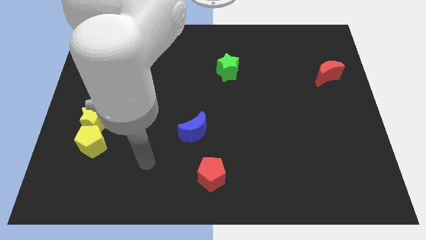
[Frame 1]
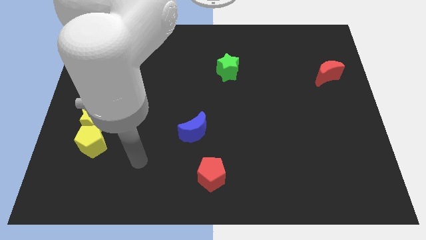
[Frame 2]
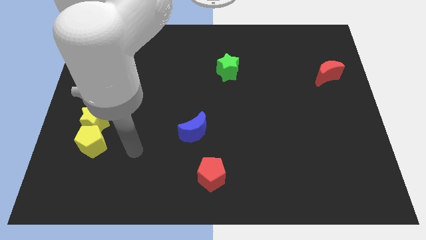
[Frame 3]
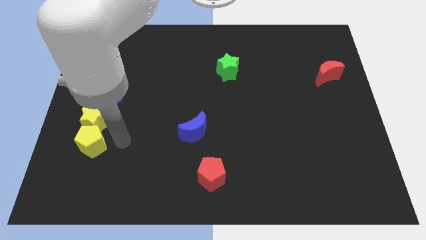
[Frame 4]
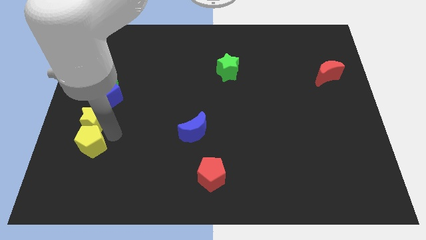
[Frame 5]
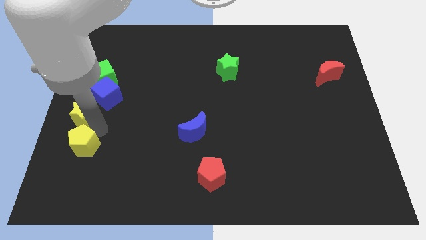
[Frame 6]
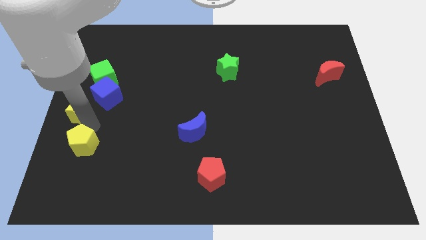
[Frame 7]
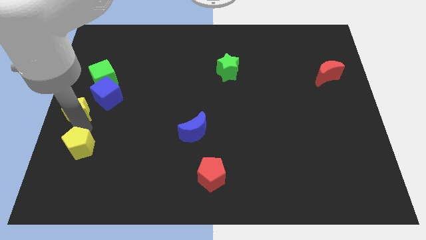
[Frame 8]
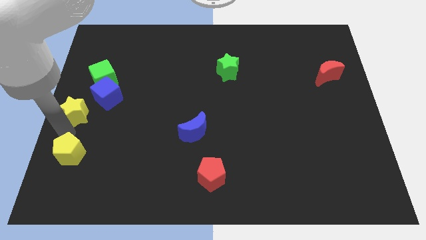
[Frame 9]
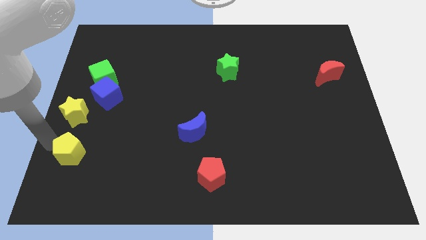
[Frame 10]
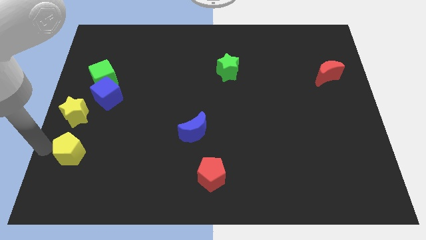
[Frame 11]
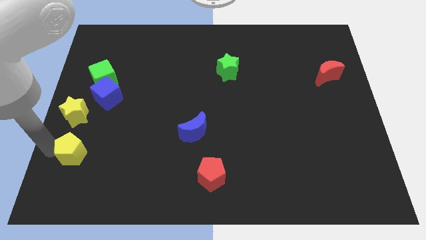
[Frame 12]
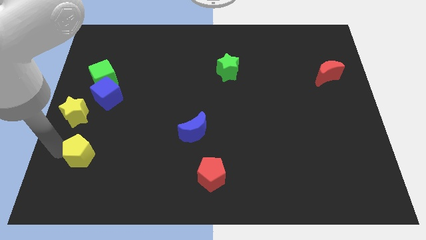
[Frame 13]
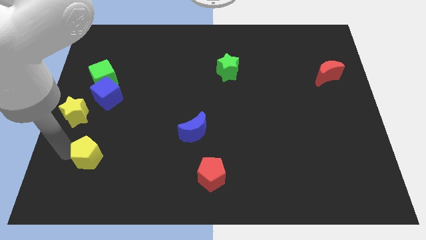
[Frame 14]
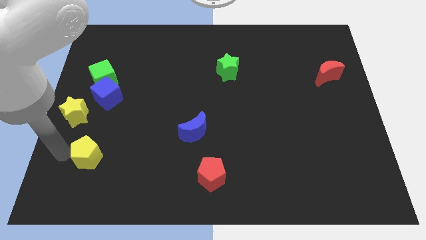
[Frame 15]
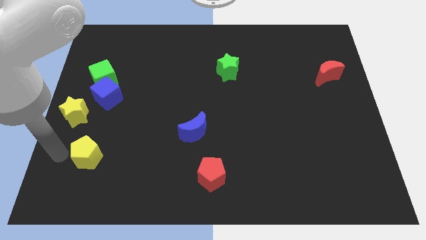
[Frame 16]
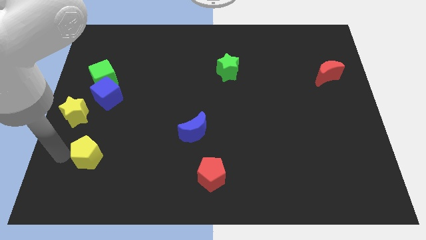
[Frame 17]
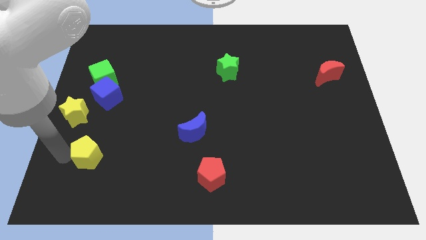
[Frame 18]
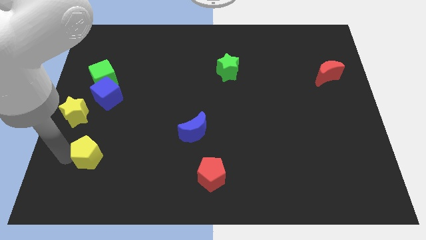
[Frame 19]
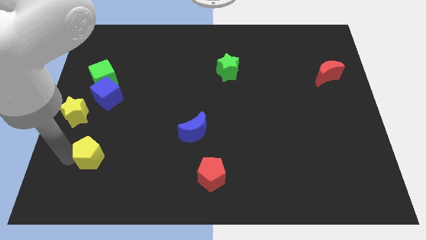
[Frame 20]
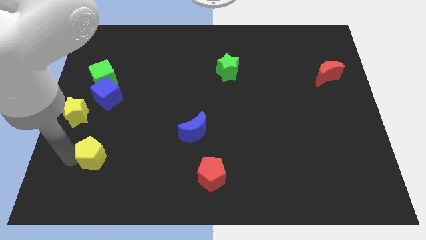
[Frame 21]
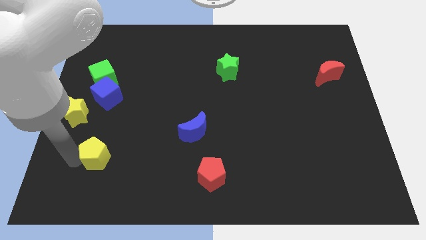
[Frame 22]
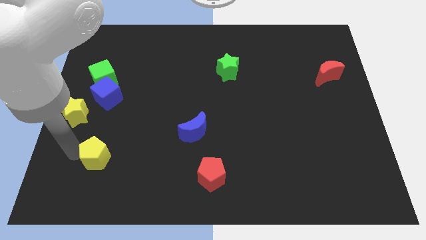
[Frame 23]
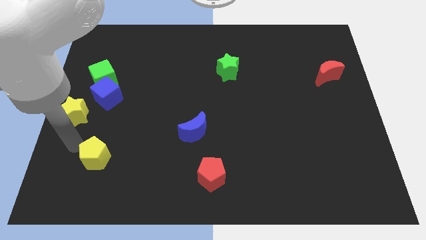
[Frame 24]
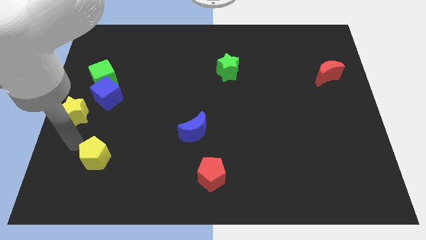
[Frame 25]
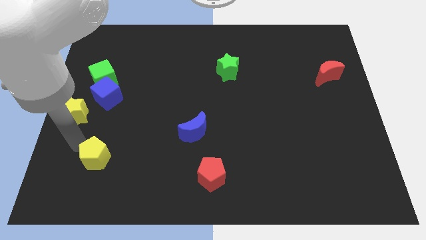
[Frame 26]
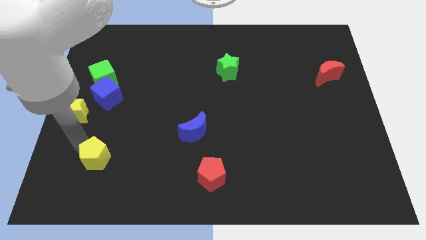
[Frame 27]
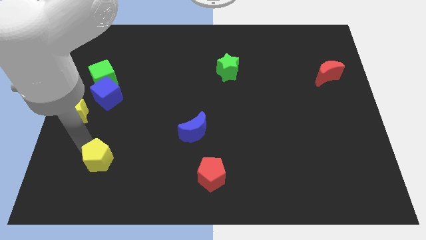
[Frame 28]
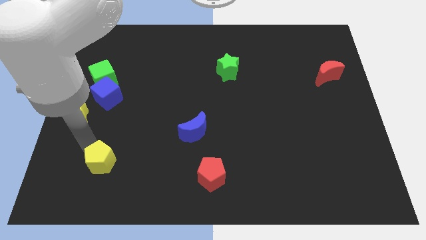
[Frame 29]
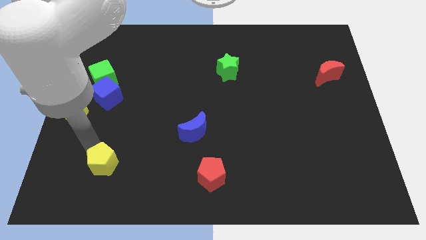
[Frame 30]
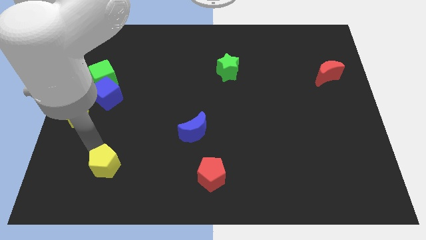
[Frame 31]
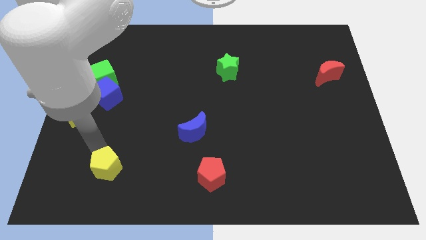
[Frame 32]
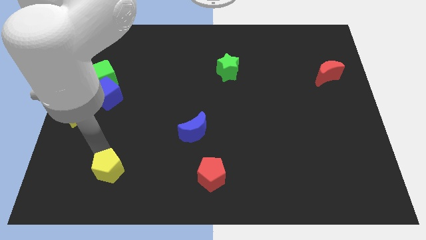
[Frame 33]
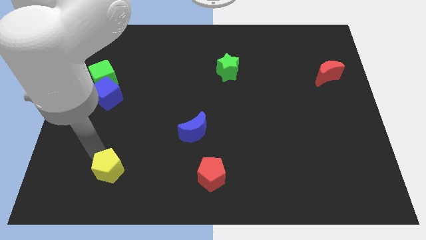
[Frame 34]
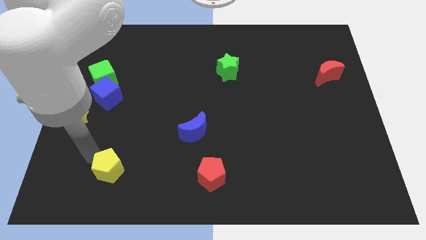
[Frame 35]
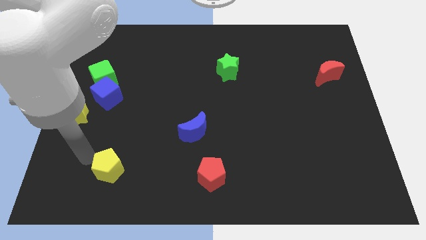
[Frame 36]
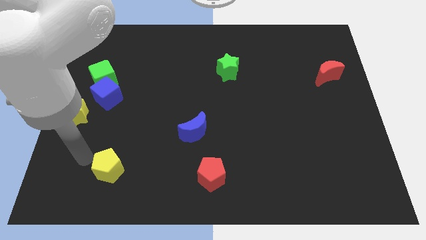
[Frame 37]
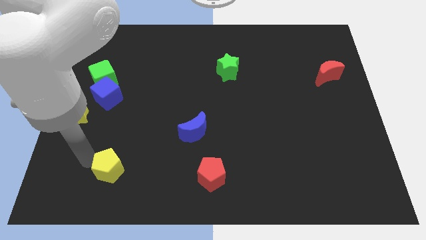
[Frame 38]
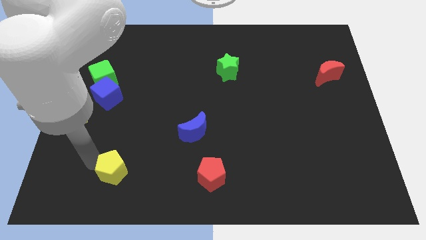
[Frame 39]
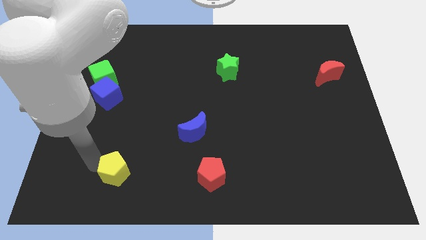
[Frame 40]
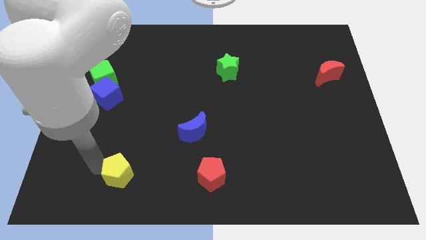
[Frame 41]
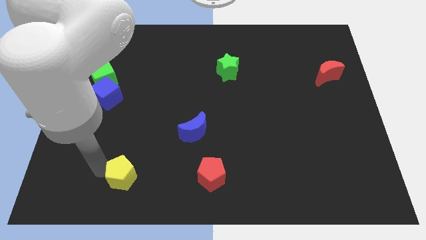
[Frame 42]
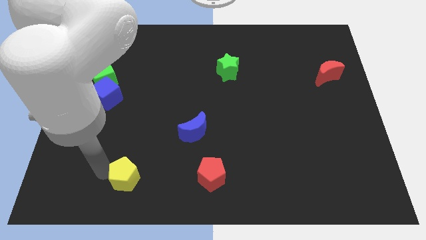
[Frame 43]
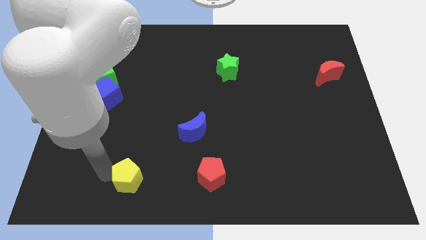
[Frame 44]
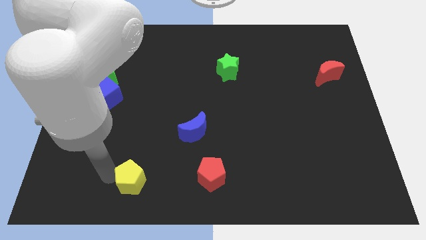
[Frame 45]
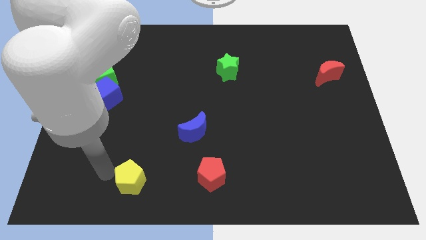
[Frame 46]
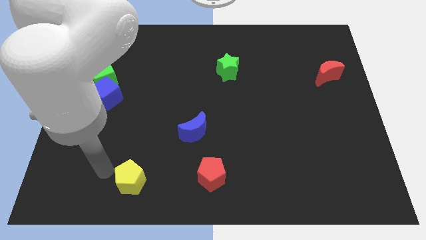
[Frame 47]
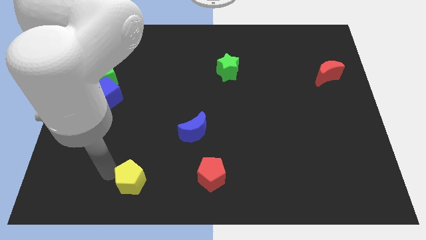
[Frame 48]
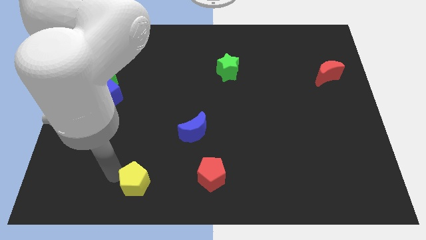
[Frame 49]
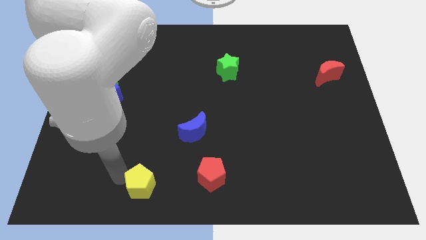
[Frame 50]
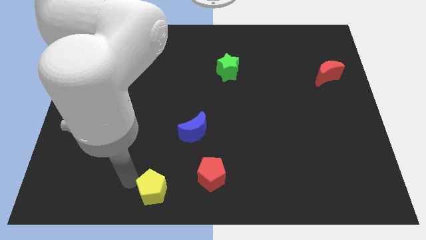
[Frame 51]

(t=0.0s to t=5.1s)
put the yellow pentagon to the bottom side

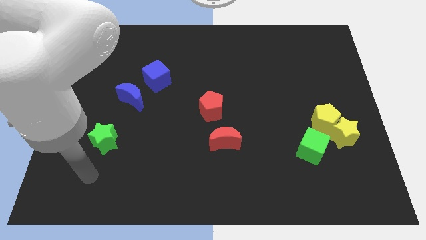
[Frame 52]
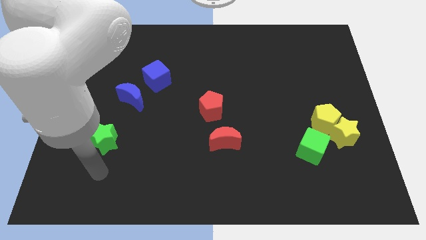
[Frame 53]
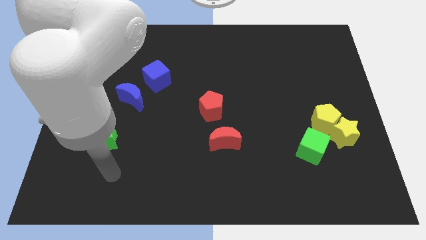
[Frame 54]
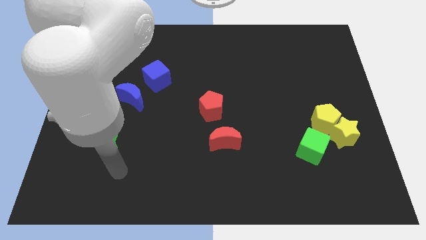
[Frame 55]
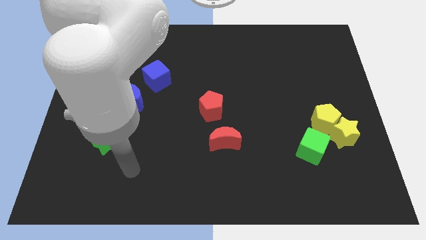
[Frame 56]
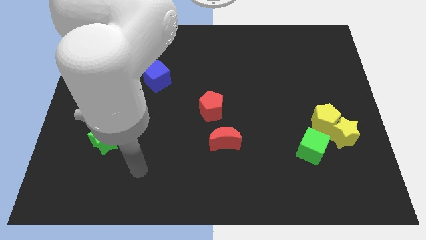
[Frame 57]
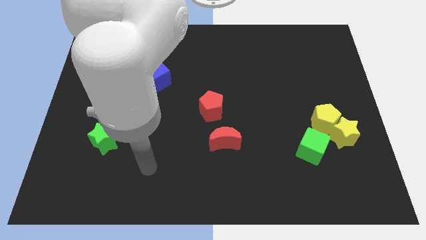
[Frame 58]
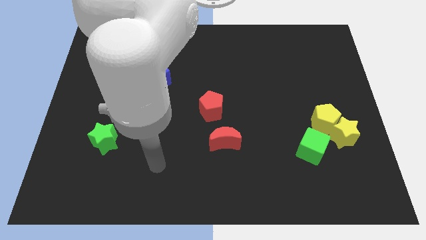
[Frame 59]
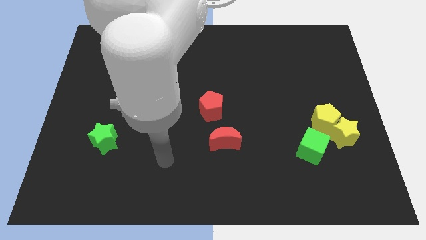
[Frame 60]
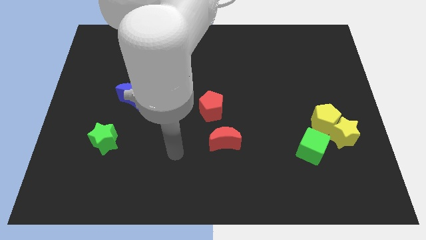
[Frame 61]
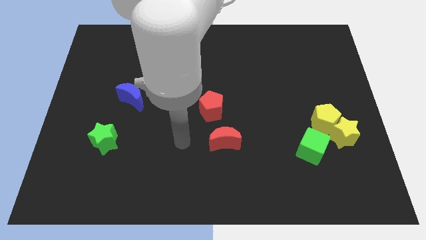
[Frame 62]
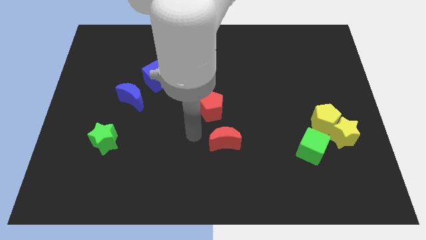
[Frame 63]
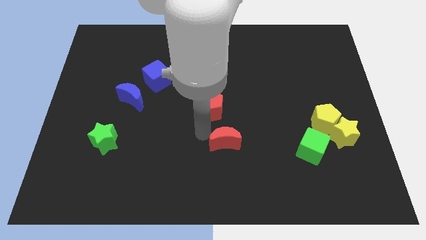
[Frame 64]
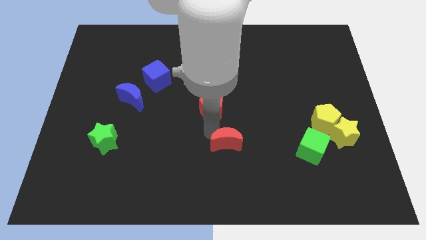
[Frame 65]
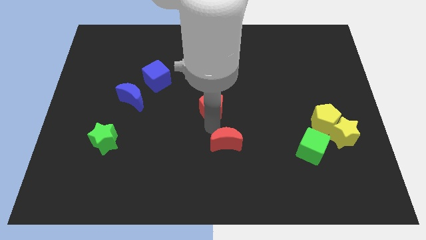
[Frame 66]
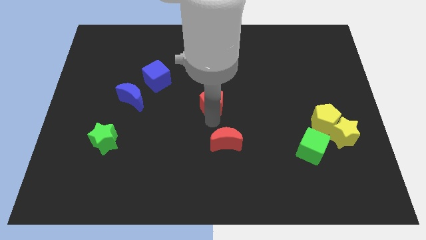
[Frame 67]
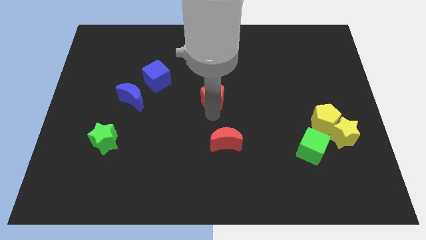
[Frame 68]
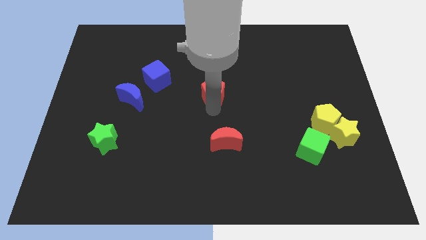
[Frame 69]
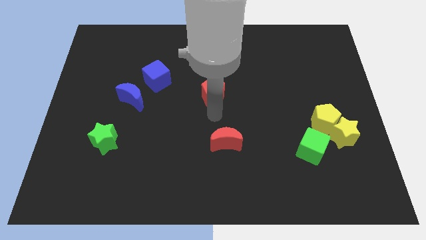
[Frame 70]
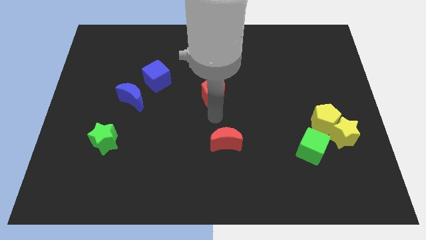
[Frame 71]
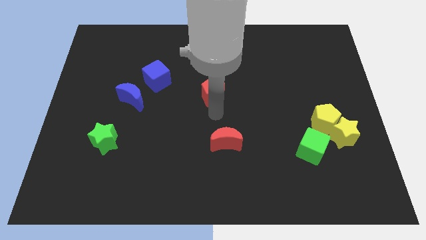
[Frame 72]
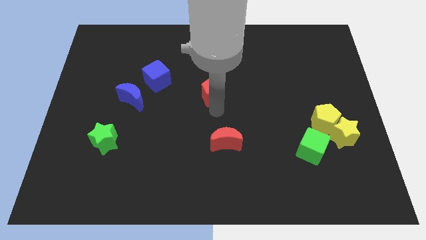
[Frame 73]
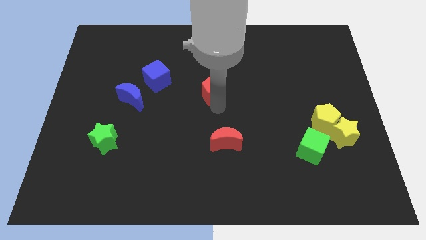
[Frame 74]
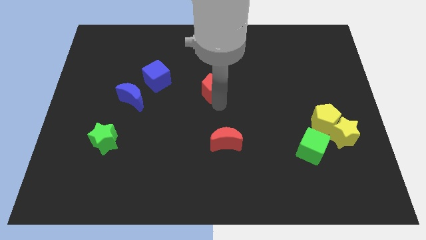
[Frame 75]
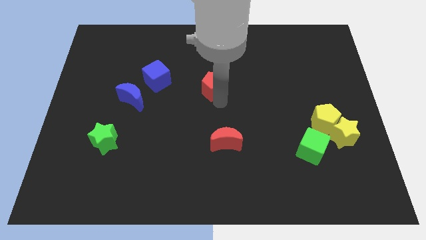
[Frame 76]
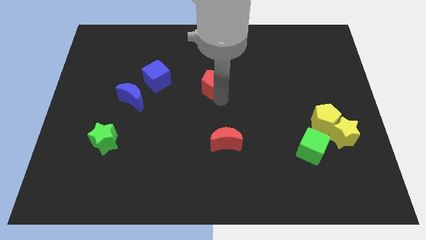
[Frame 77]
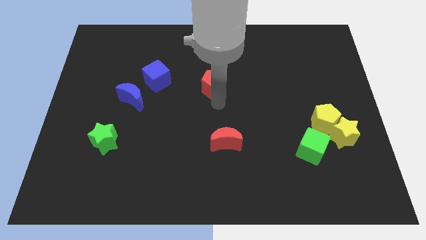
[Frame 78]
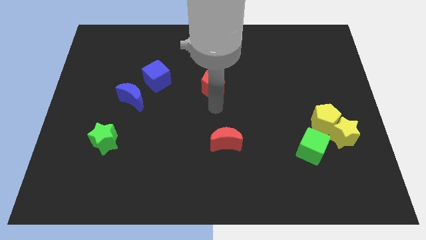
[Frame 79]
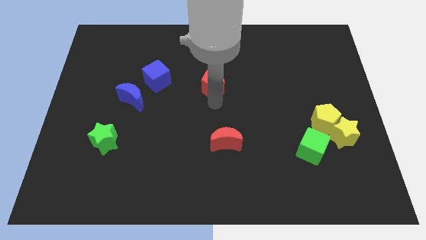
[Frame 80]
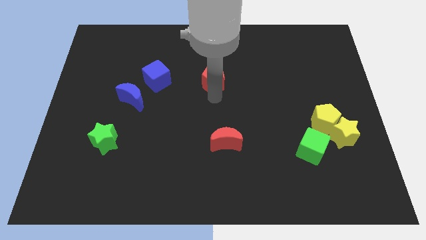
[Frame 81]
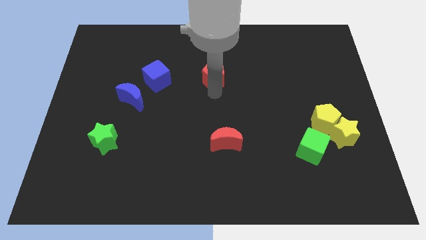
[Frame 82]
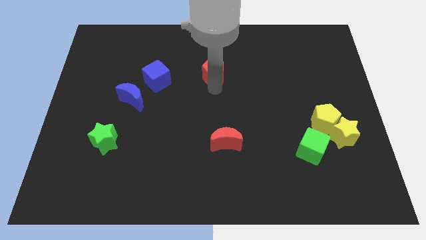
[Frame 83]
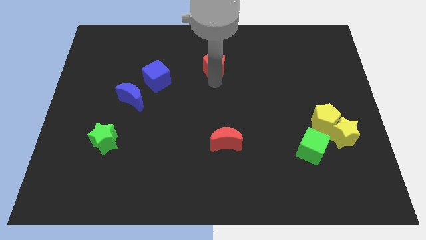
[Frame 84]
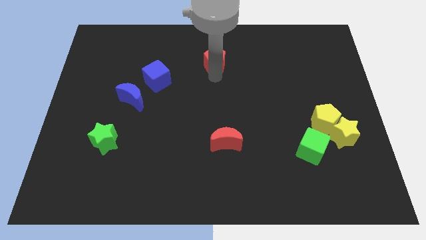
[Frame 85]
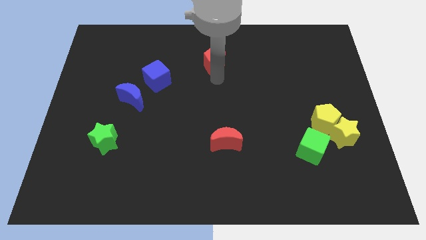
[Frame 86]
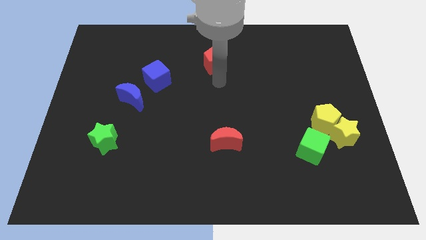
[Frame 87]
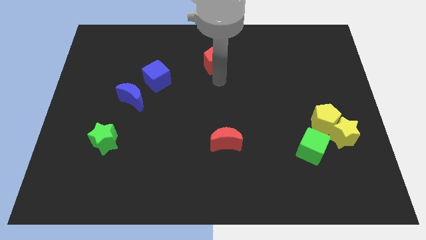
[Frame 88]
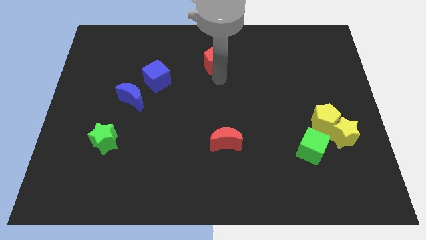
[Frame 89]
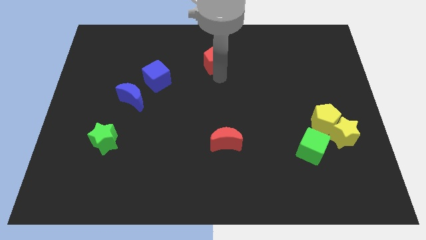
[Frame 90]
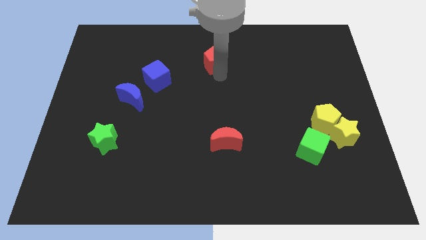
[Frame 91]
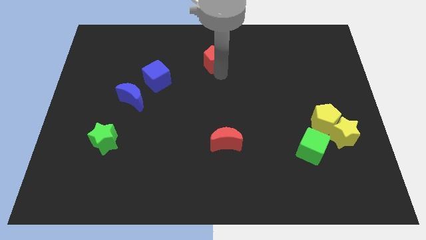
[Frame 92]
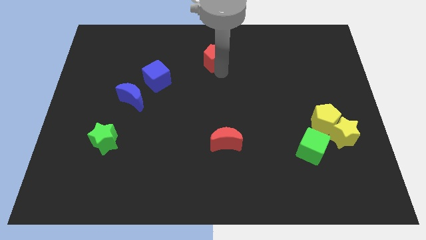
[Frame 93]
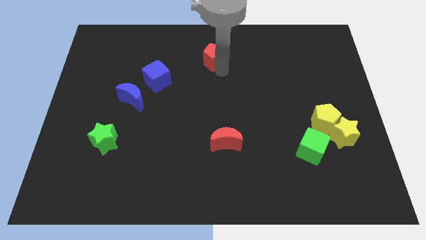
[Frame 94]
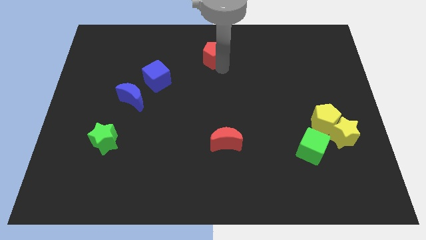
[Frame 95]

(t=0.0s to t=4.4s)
slide the red pentagon to the towards your base
